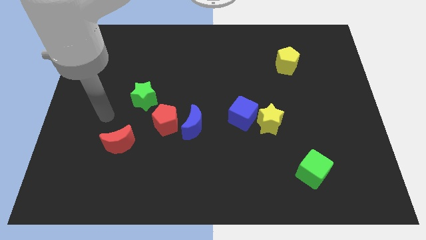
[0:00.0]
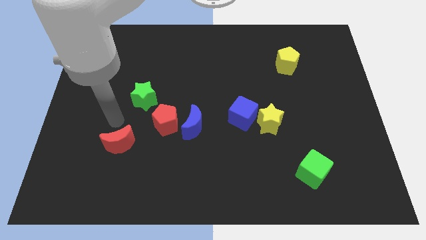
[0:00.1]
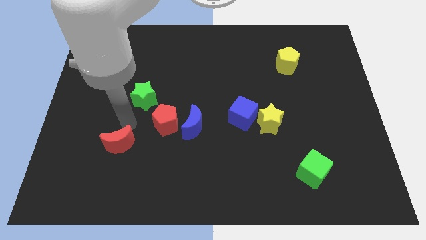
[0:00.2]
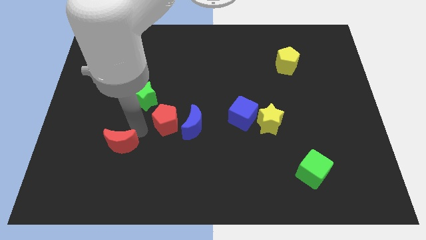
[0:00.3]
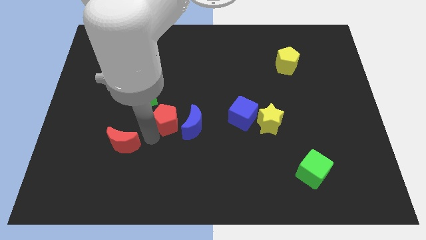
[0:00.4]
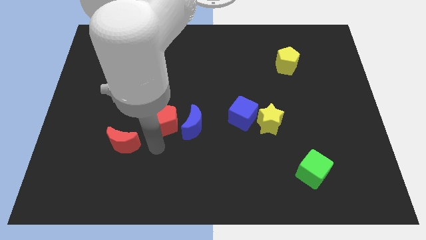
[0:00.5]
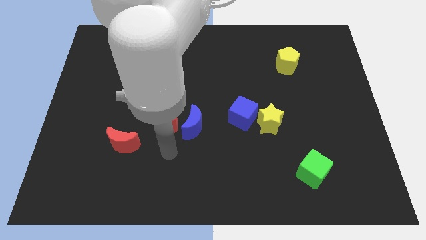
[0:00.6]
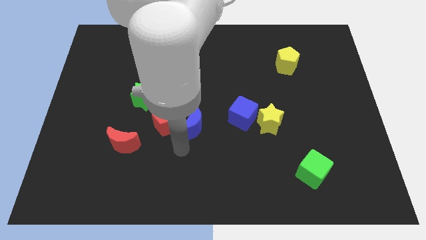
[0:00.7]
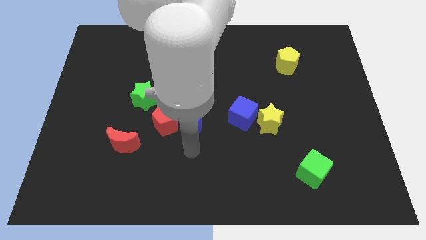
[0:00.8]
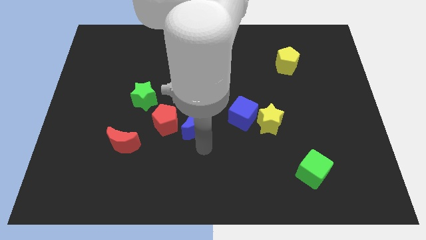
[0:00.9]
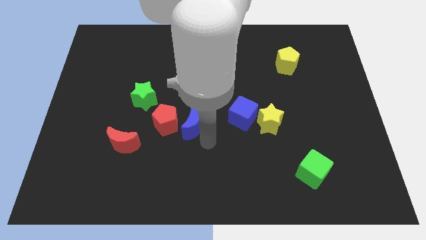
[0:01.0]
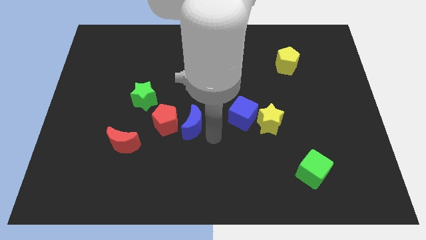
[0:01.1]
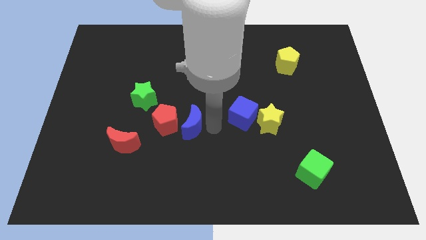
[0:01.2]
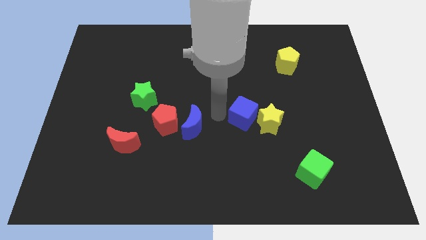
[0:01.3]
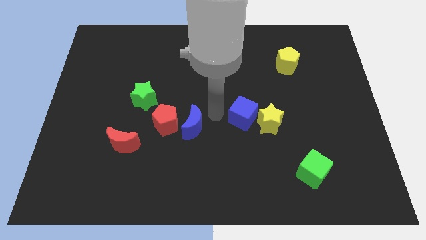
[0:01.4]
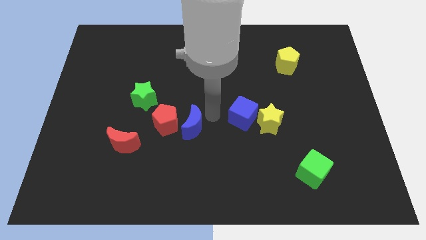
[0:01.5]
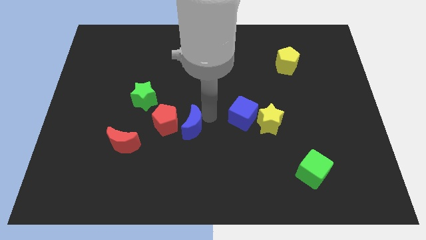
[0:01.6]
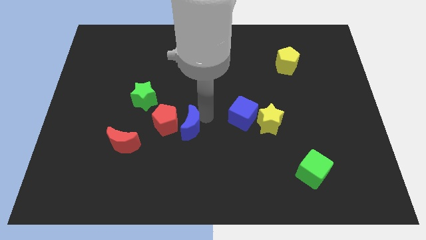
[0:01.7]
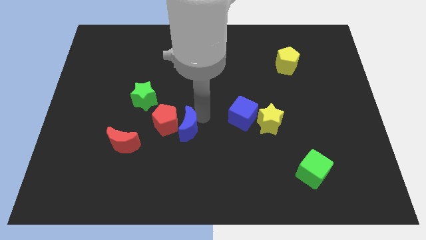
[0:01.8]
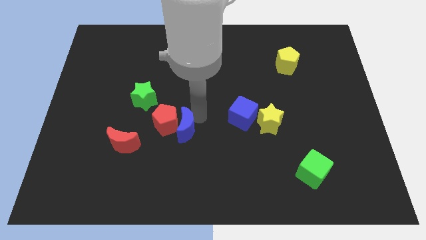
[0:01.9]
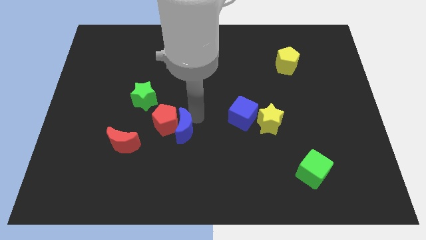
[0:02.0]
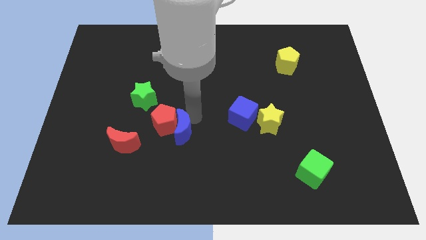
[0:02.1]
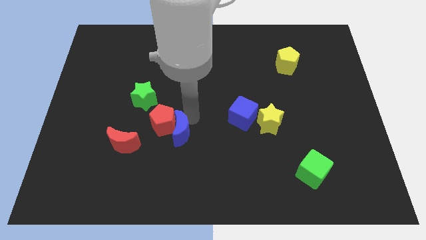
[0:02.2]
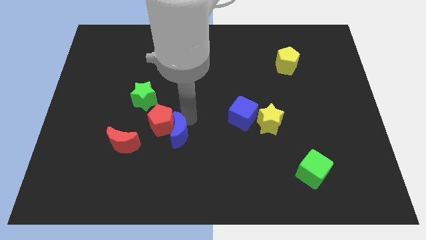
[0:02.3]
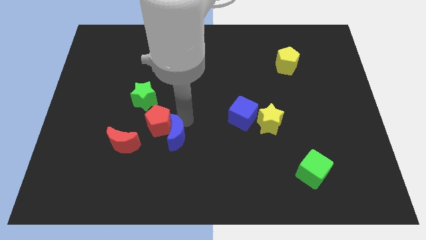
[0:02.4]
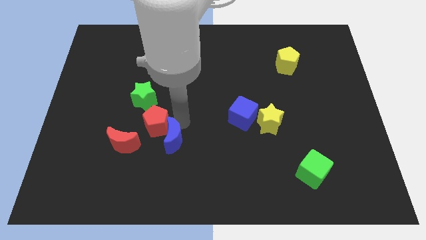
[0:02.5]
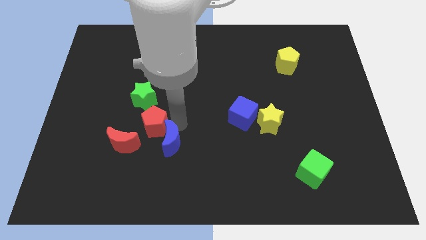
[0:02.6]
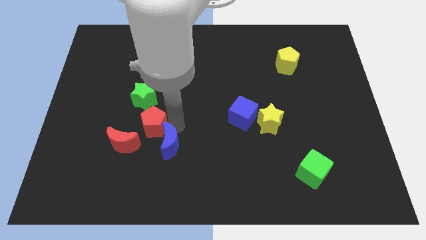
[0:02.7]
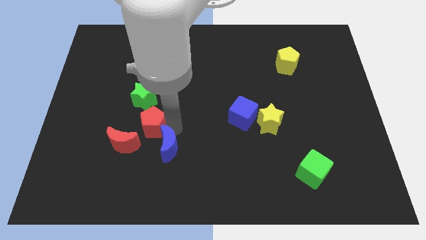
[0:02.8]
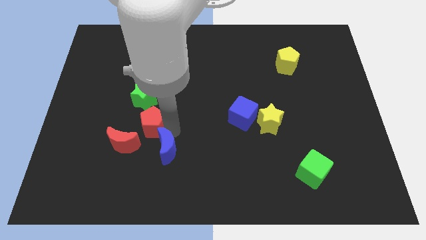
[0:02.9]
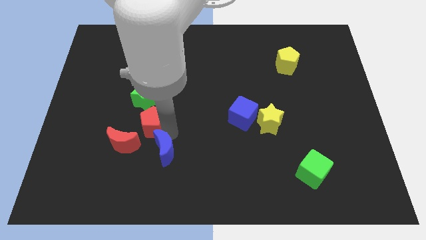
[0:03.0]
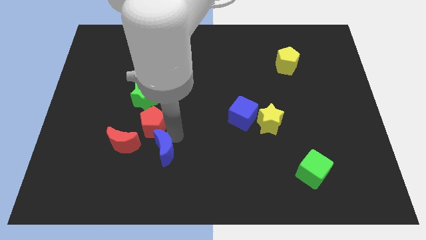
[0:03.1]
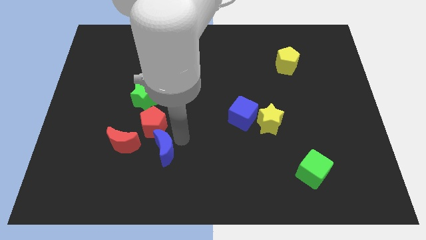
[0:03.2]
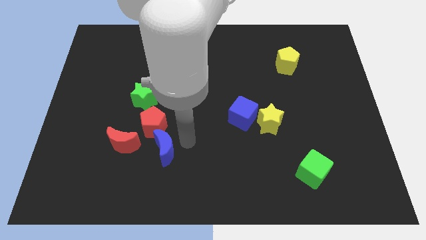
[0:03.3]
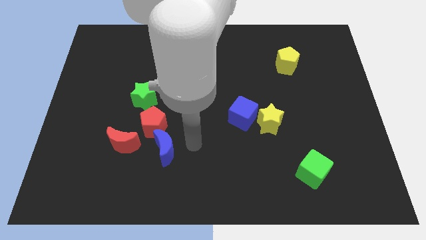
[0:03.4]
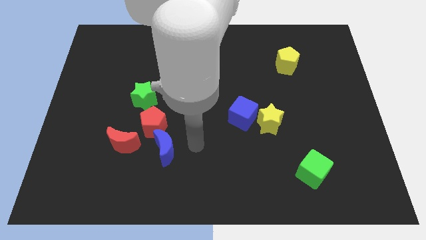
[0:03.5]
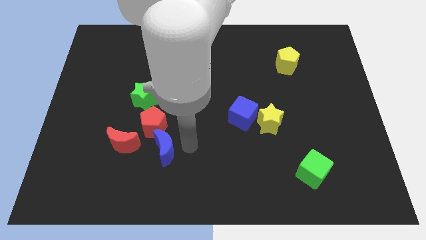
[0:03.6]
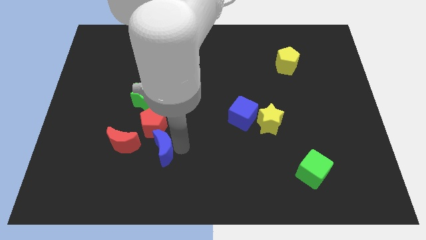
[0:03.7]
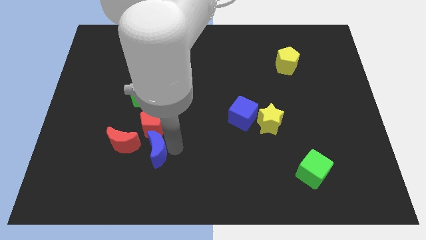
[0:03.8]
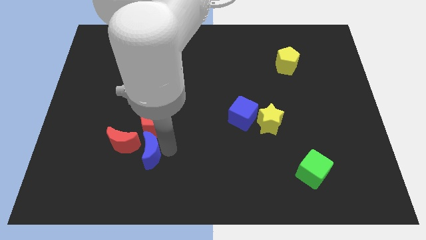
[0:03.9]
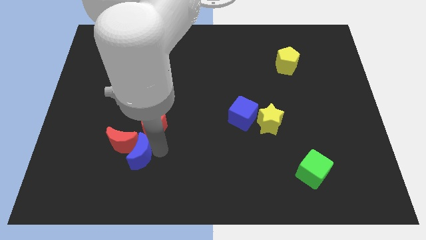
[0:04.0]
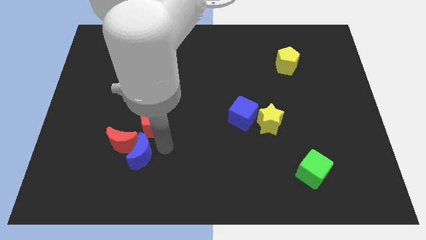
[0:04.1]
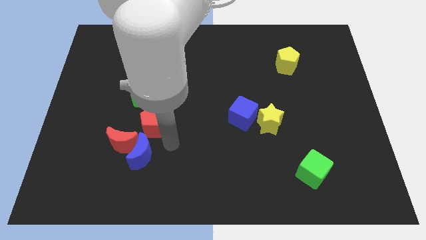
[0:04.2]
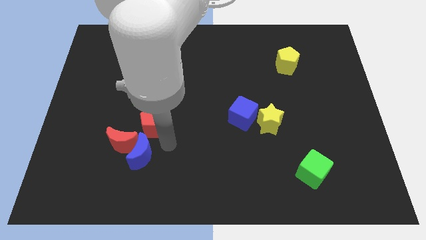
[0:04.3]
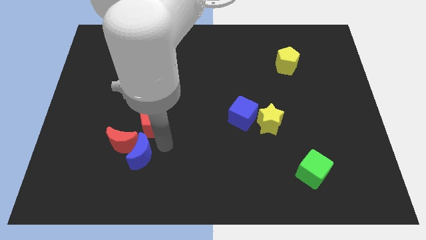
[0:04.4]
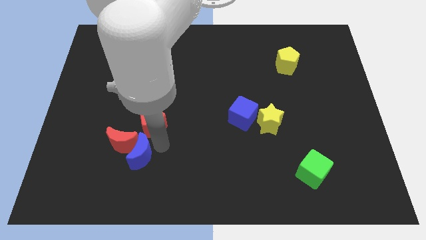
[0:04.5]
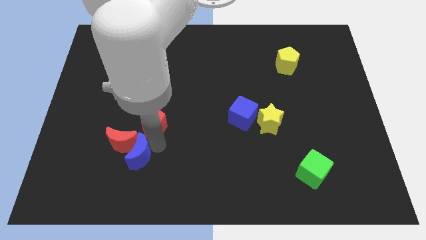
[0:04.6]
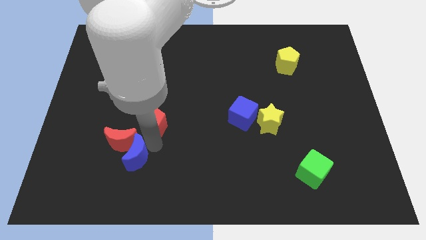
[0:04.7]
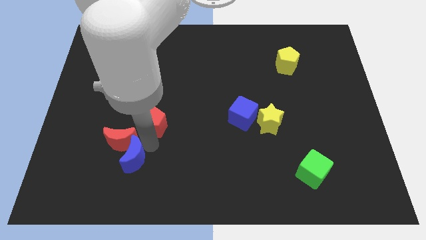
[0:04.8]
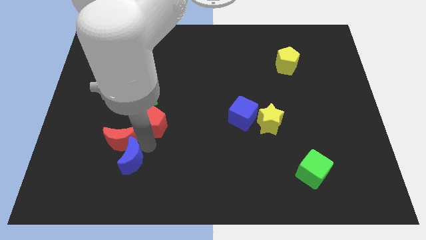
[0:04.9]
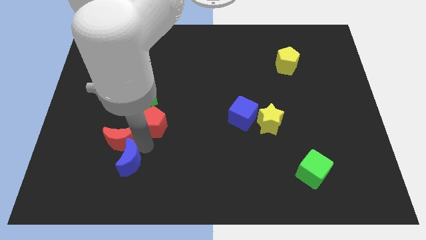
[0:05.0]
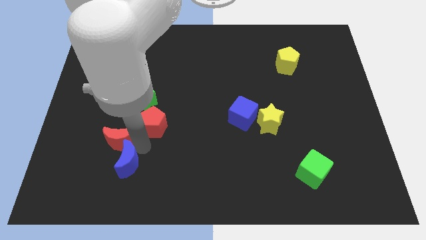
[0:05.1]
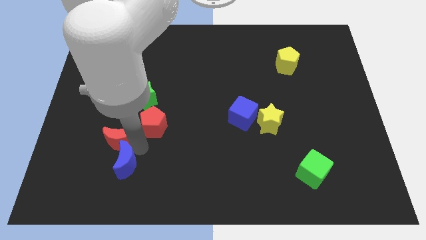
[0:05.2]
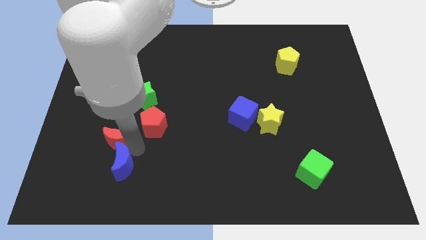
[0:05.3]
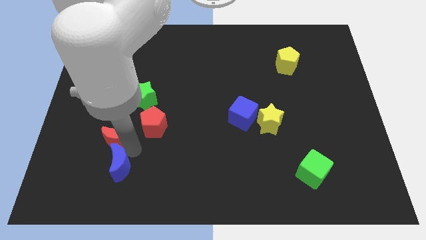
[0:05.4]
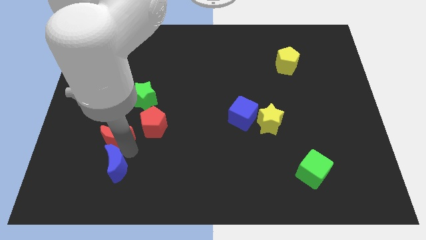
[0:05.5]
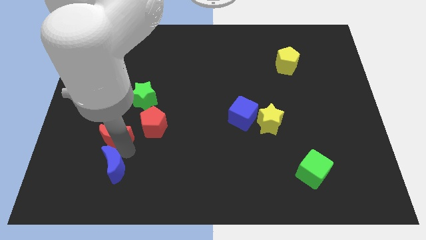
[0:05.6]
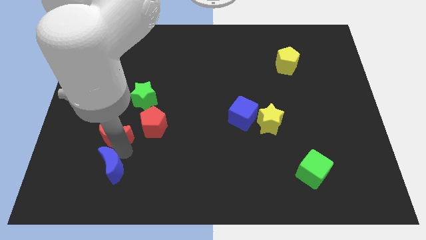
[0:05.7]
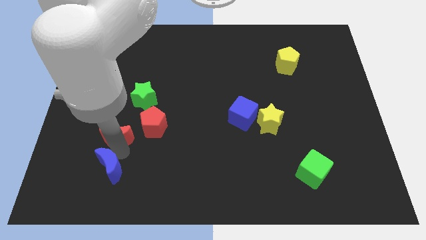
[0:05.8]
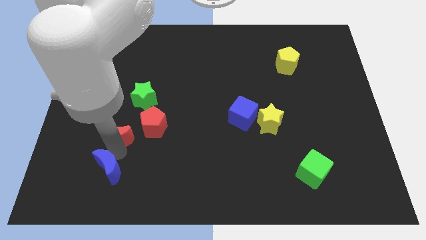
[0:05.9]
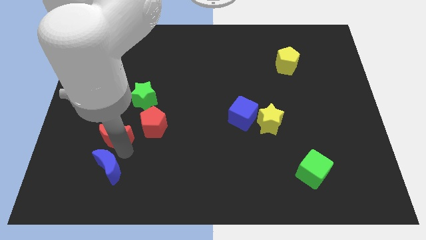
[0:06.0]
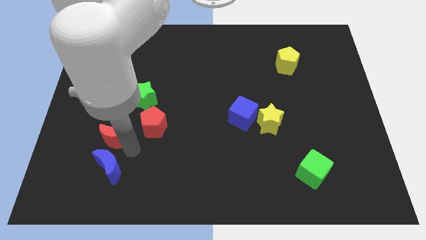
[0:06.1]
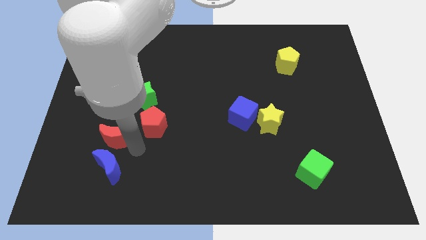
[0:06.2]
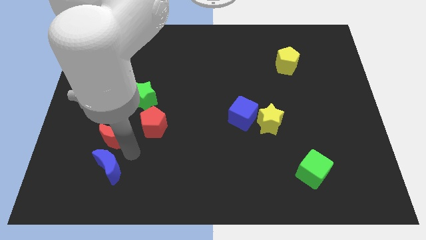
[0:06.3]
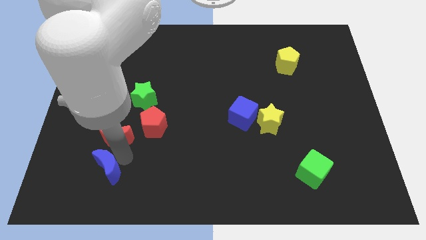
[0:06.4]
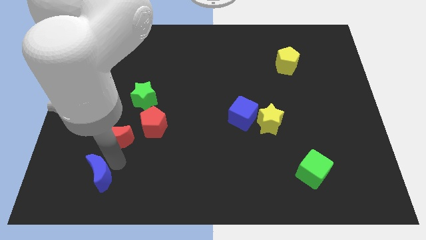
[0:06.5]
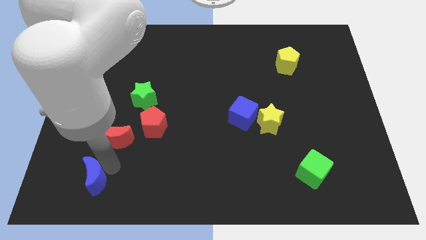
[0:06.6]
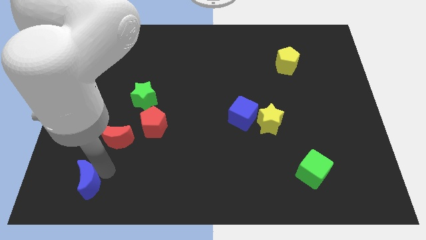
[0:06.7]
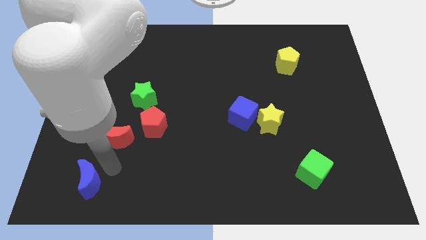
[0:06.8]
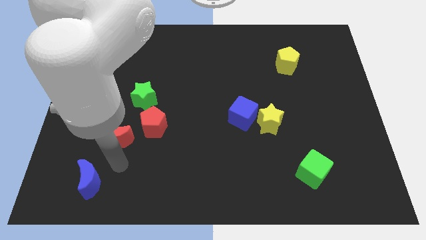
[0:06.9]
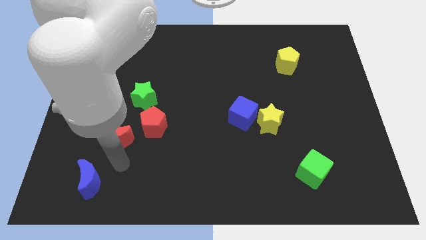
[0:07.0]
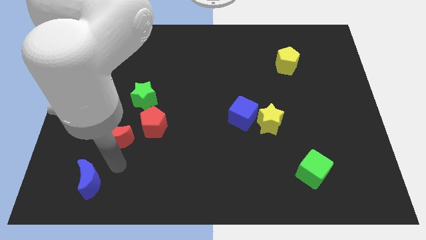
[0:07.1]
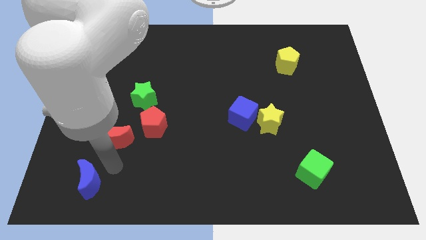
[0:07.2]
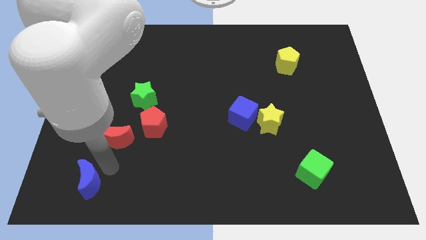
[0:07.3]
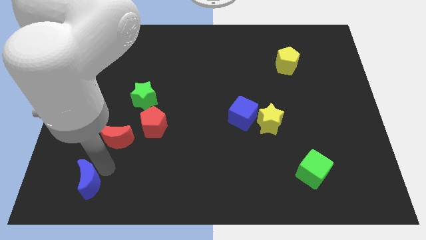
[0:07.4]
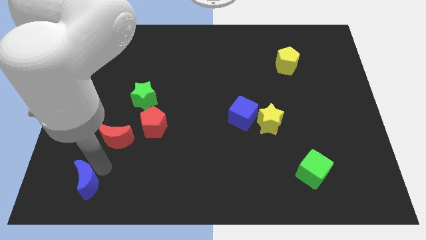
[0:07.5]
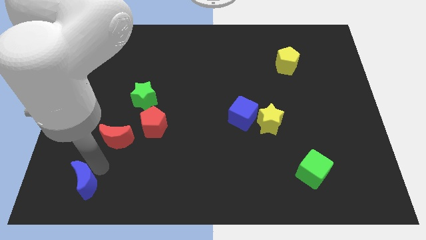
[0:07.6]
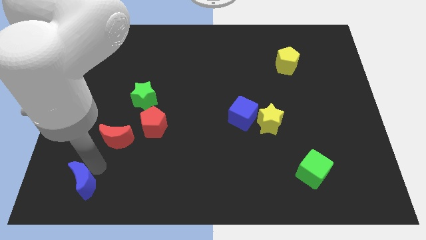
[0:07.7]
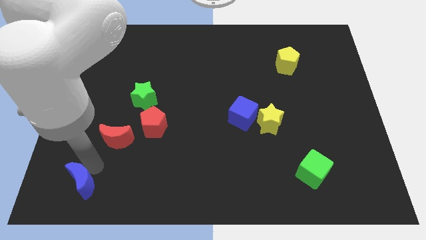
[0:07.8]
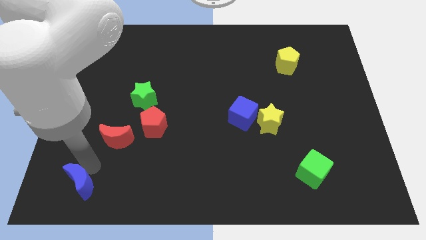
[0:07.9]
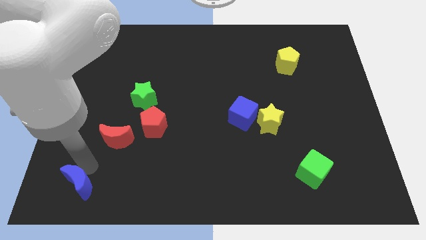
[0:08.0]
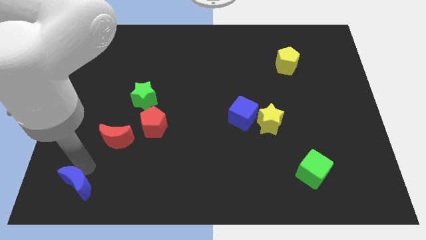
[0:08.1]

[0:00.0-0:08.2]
push the blue moon to the bottom left
